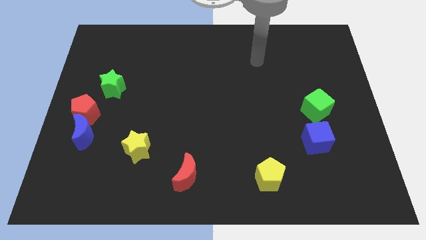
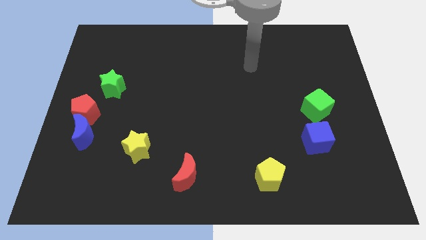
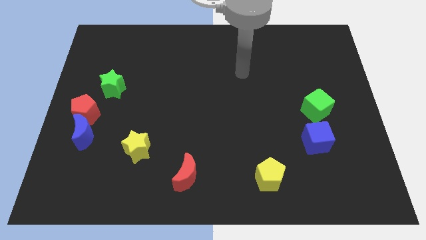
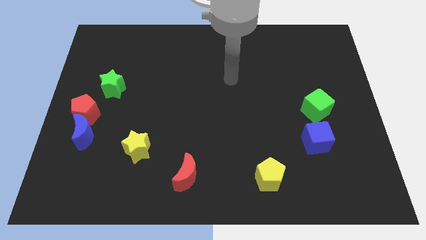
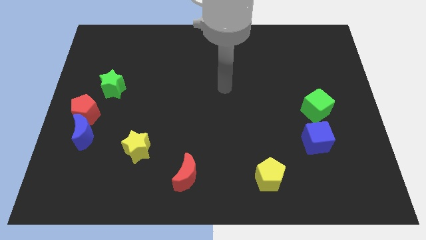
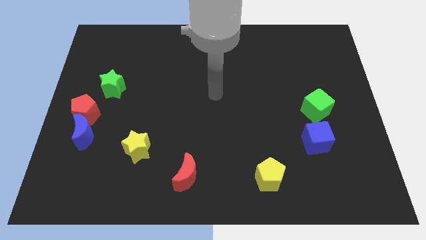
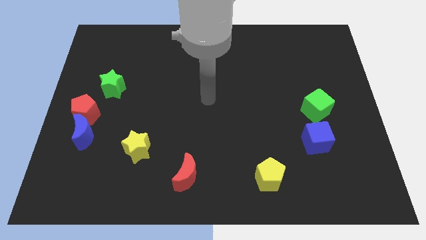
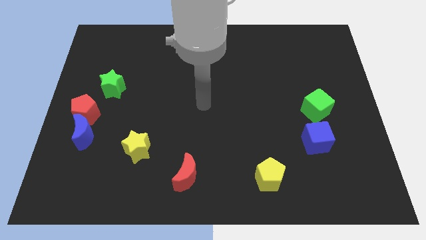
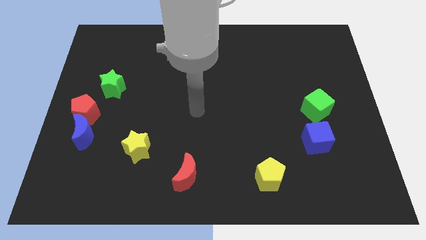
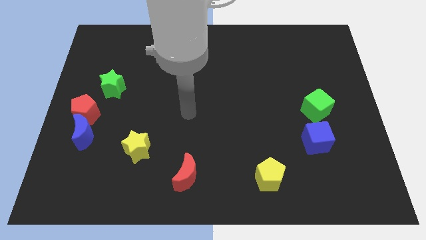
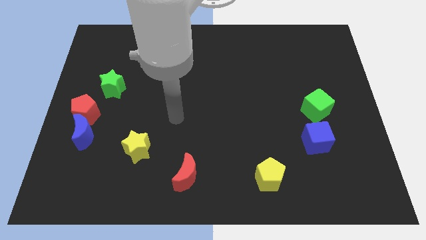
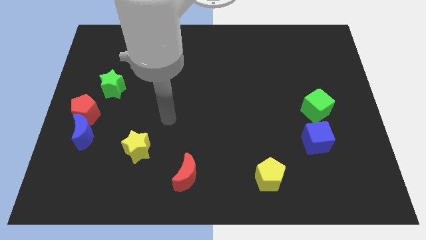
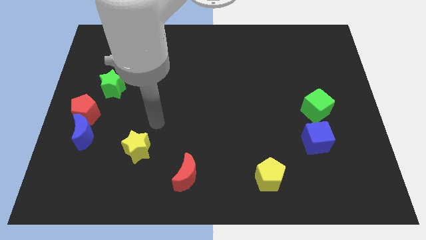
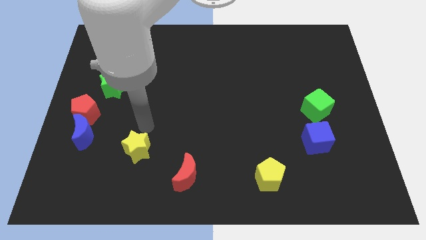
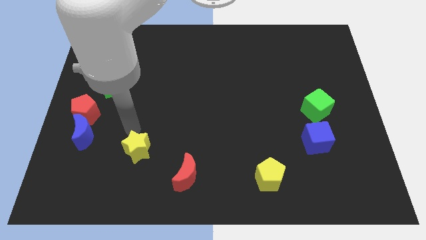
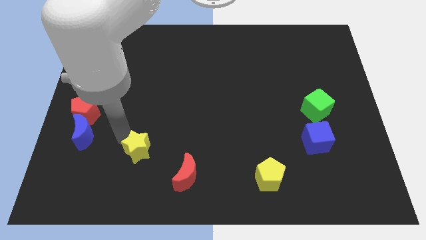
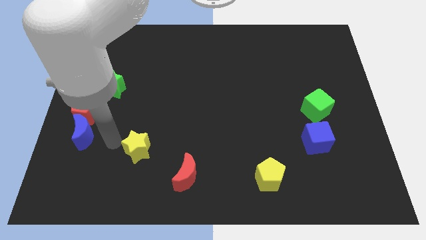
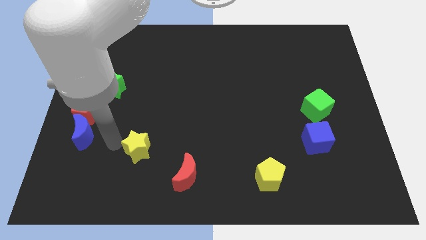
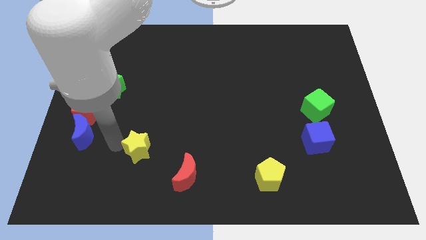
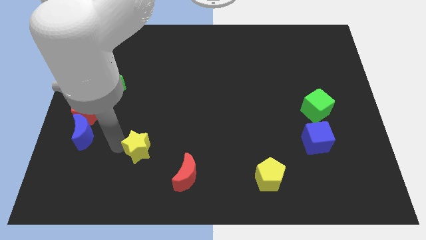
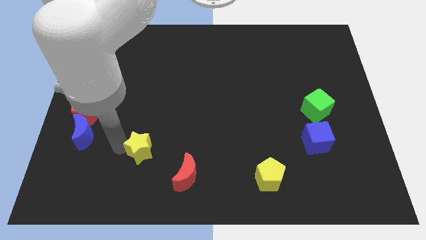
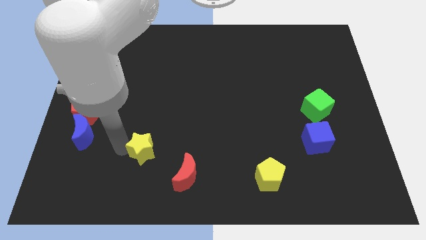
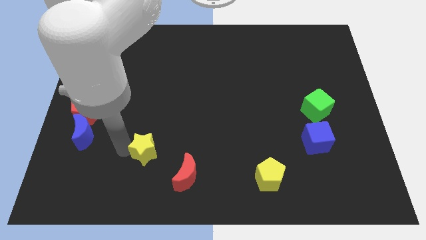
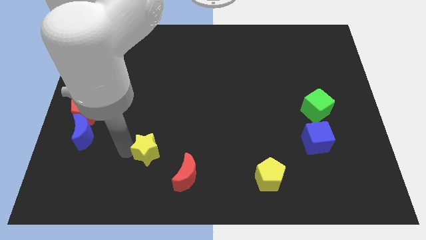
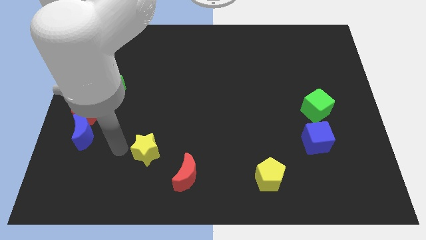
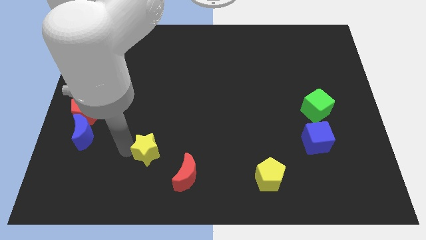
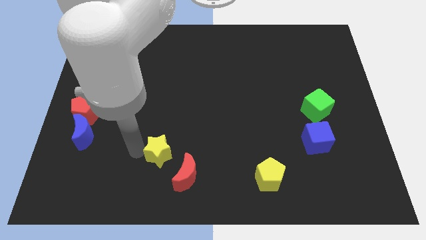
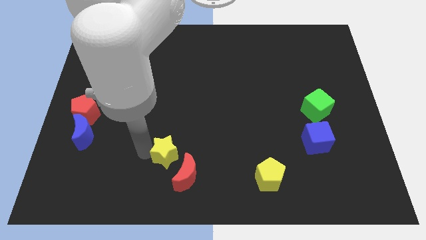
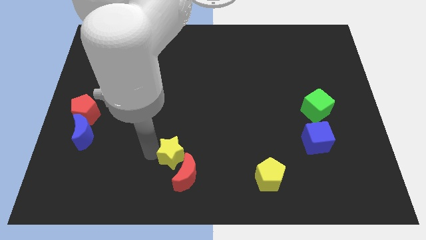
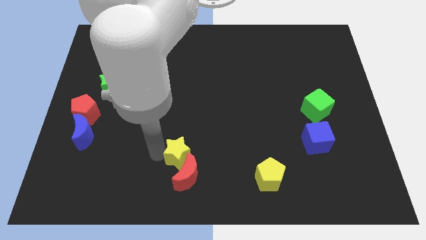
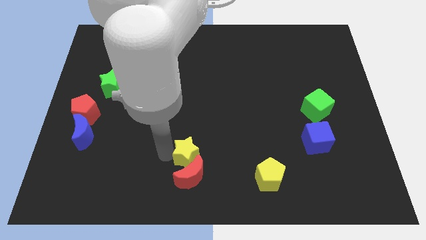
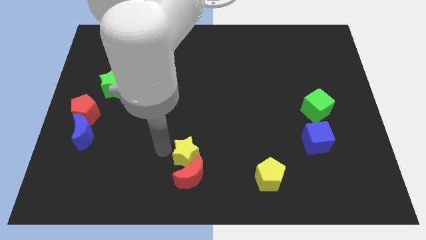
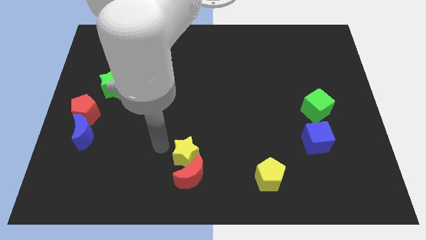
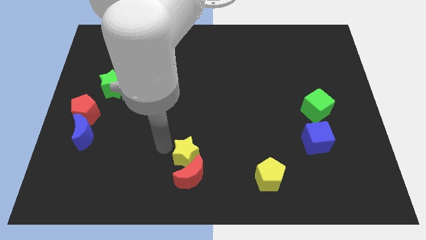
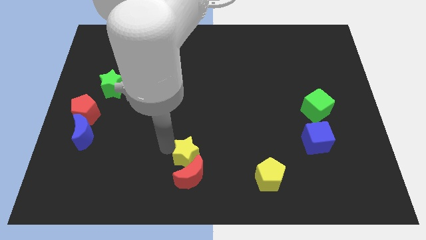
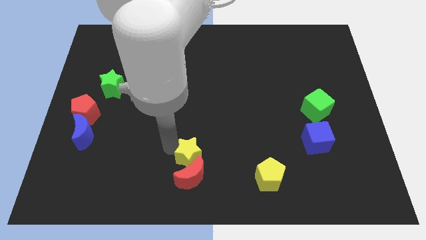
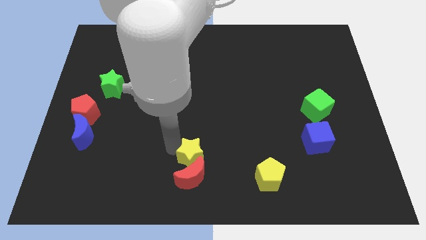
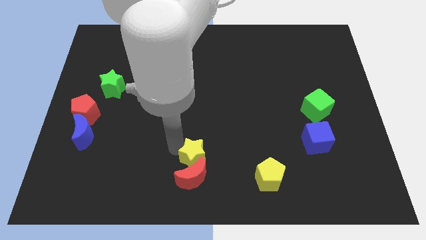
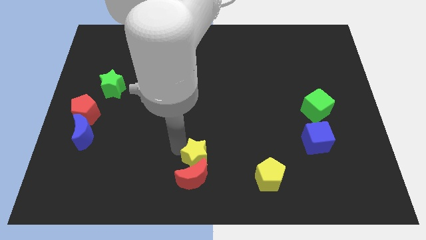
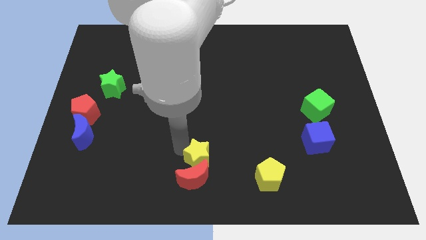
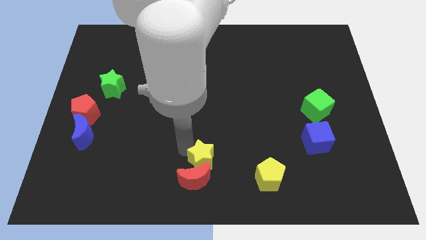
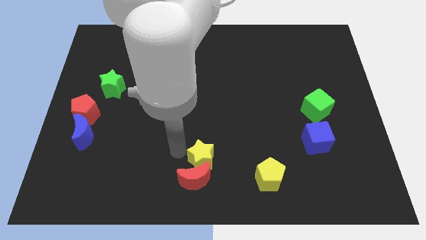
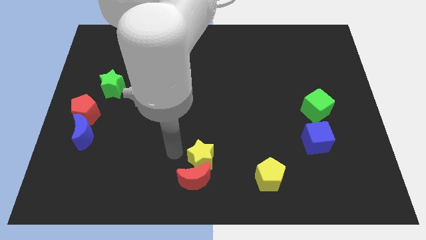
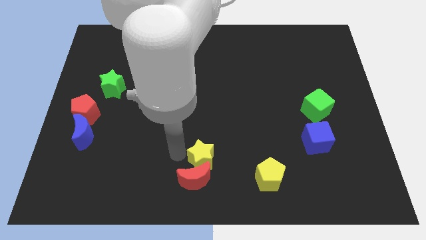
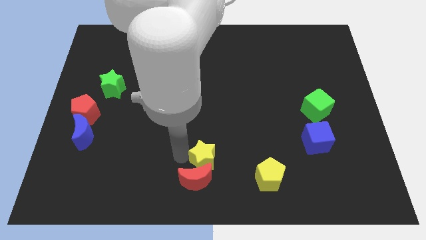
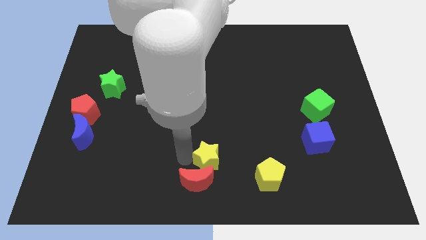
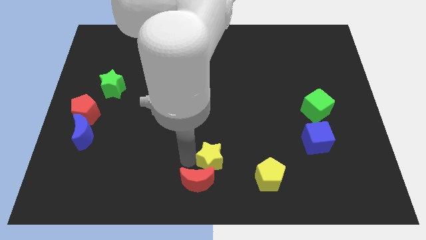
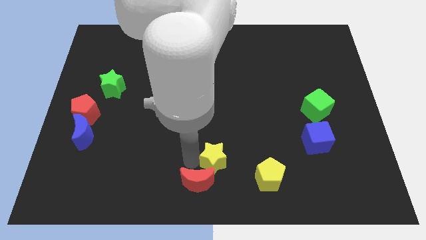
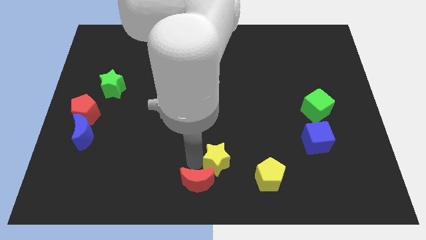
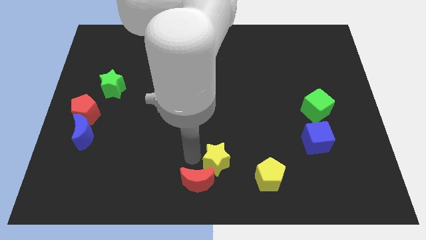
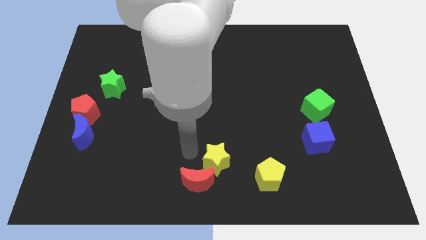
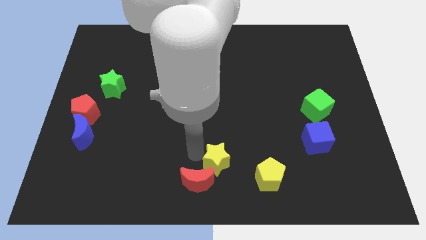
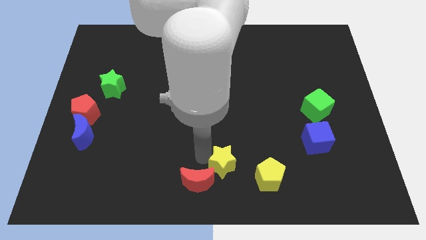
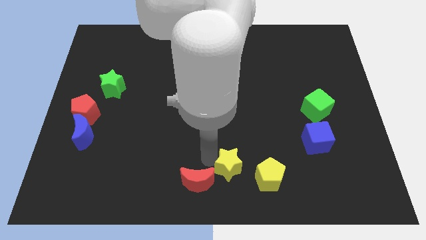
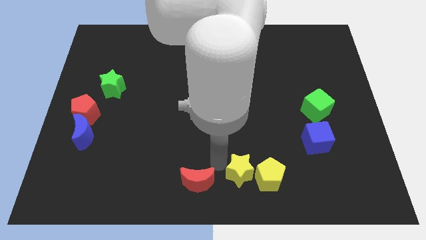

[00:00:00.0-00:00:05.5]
put the yellow star towards the yellow pentagon

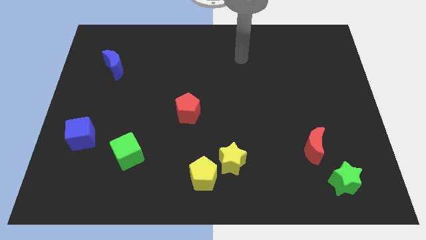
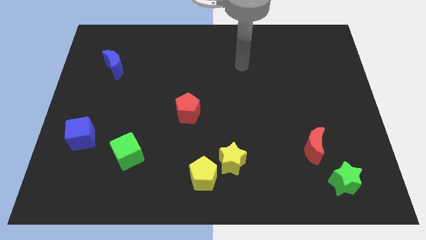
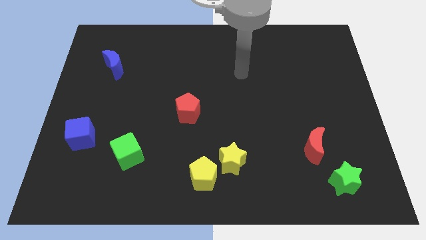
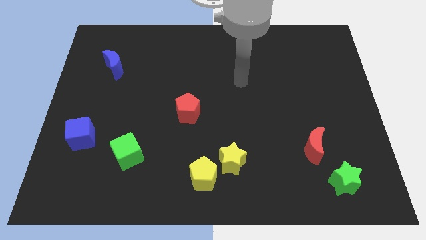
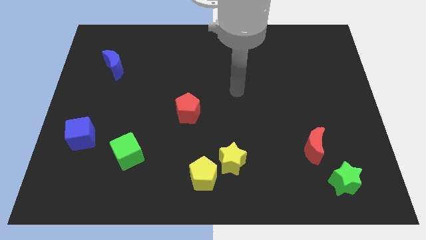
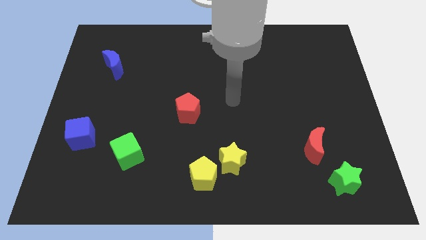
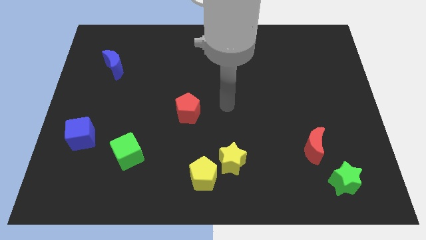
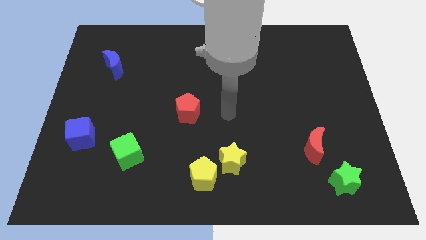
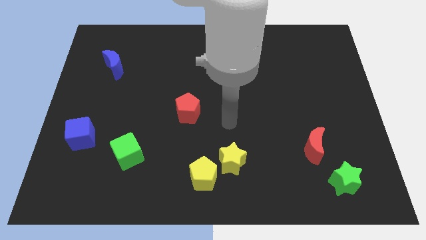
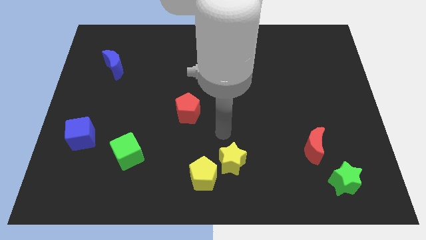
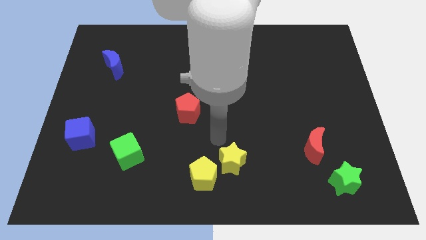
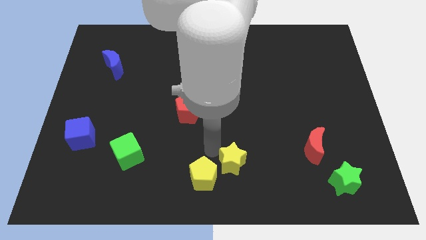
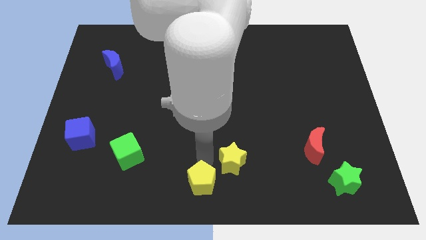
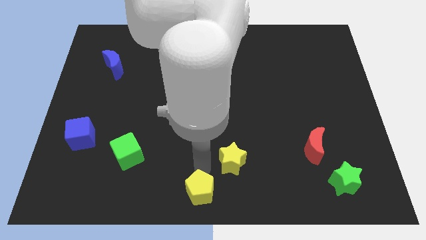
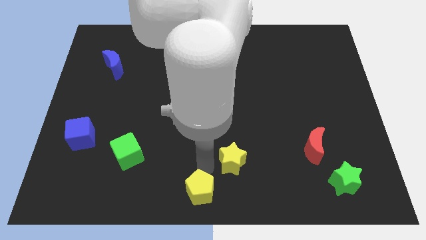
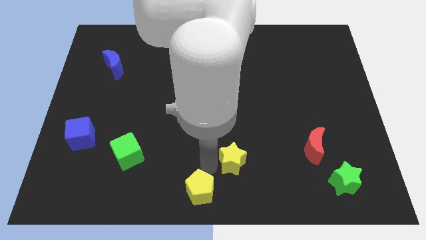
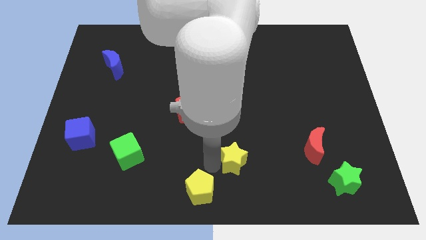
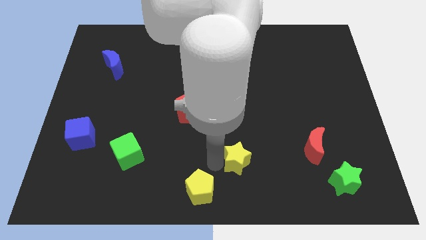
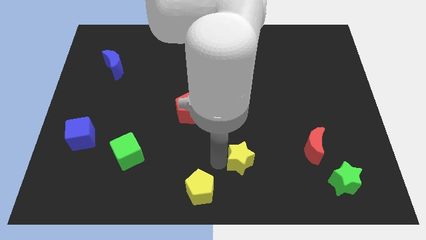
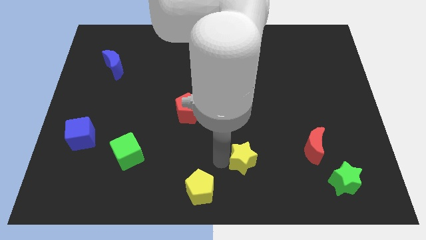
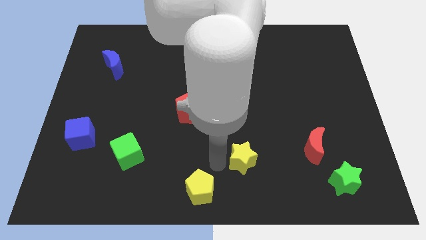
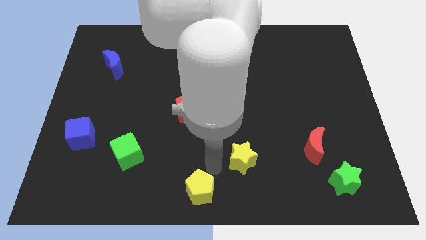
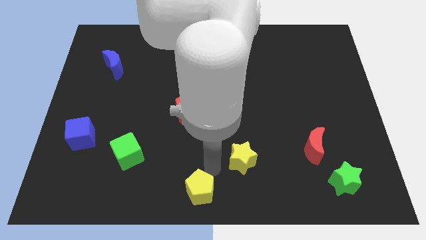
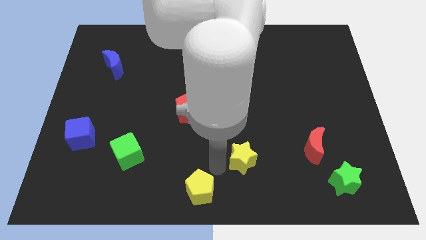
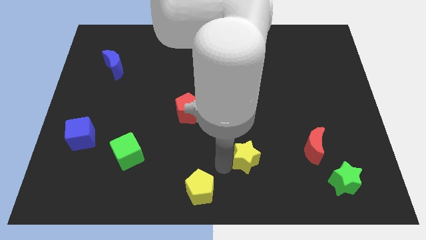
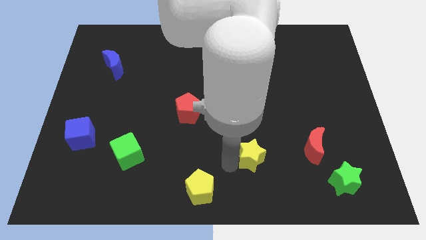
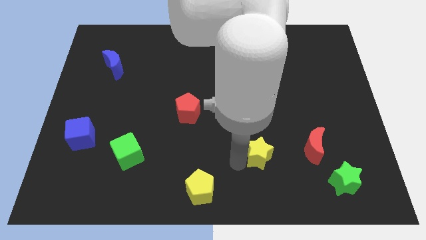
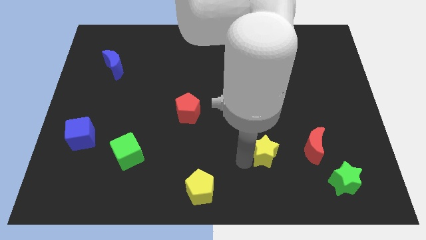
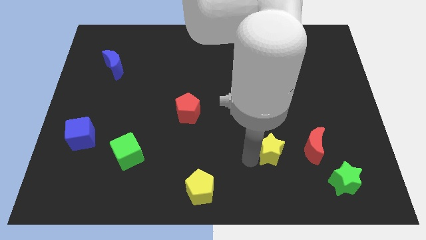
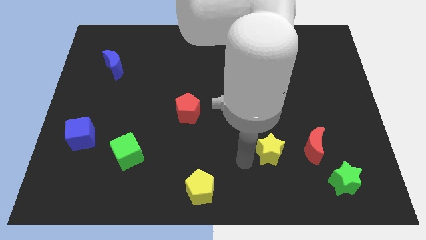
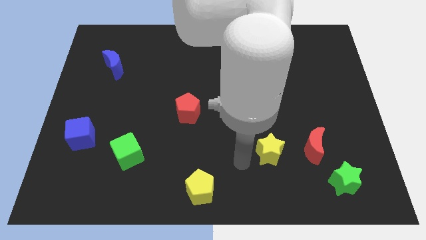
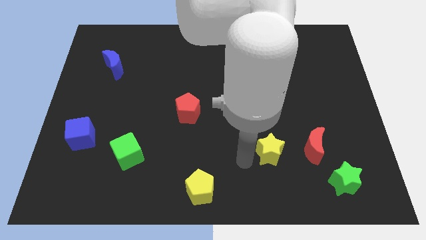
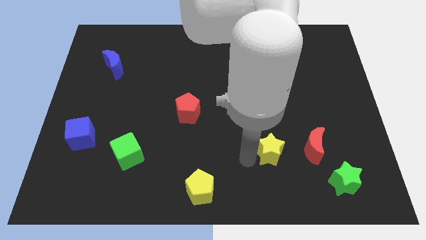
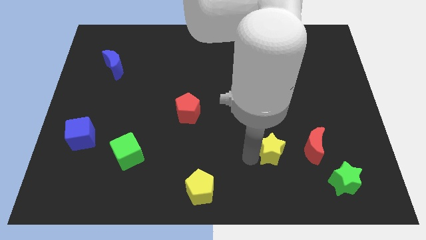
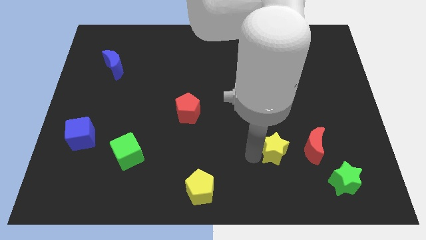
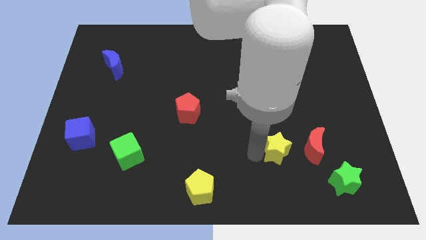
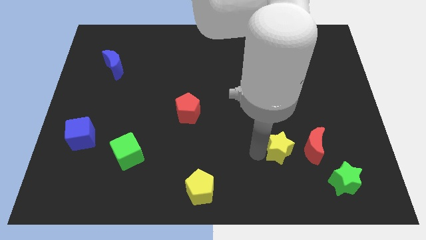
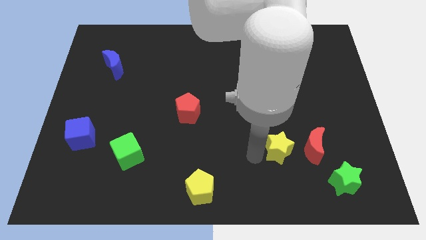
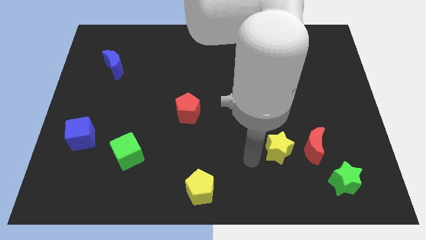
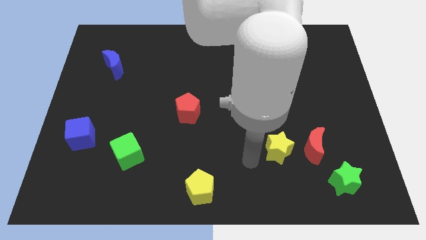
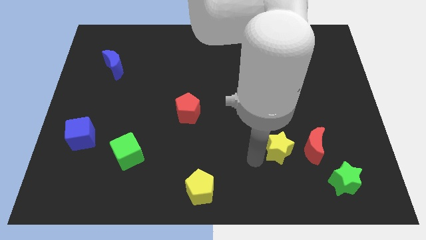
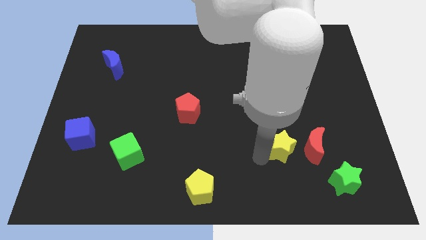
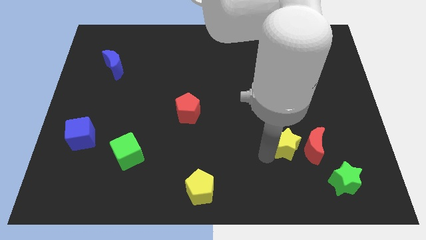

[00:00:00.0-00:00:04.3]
slide the yellow star to the red moon
